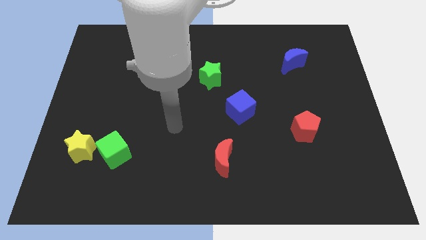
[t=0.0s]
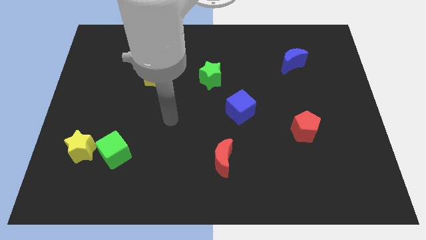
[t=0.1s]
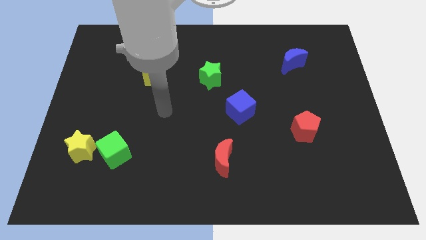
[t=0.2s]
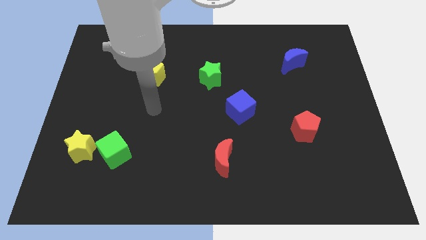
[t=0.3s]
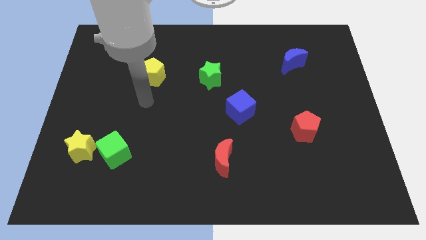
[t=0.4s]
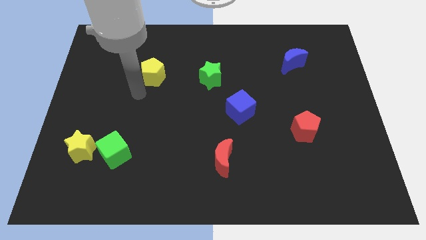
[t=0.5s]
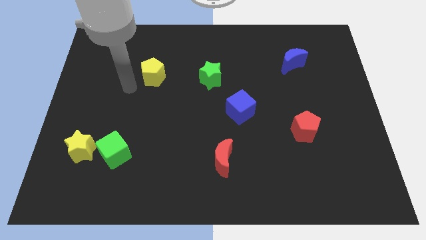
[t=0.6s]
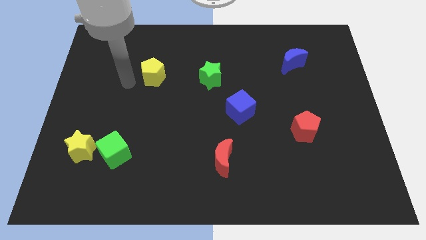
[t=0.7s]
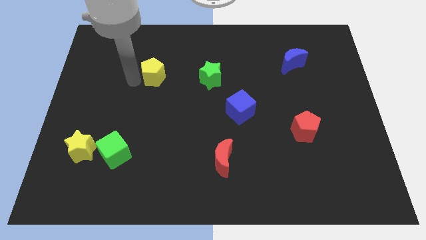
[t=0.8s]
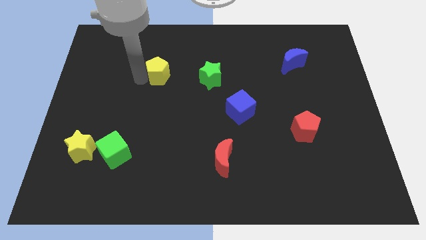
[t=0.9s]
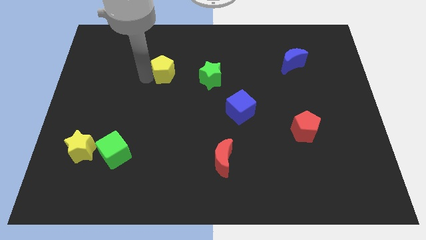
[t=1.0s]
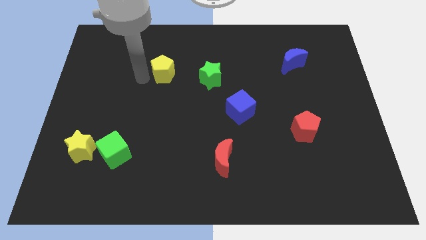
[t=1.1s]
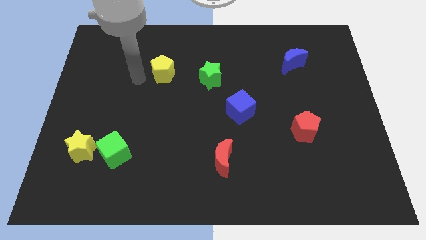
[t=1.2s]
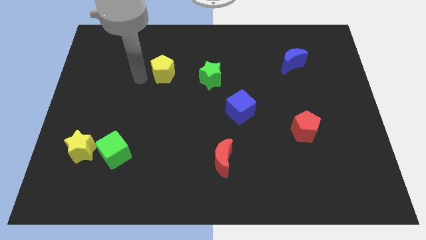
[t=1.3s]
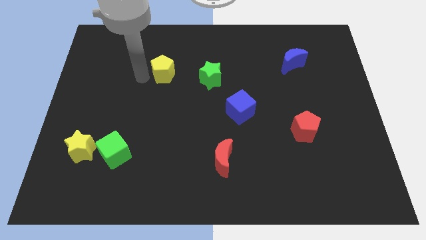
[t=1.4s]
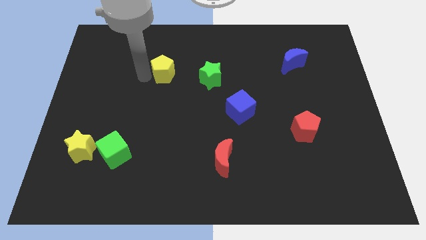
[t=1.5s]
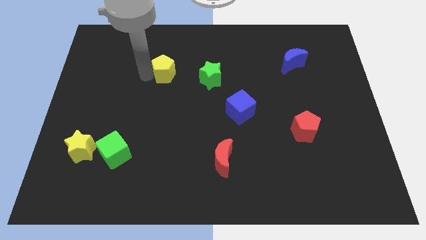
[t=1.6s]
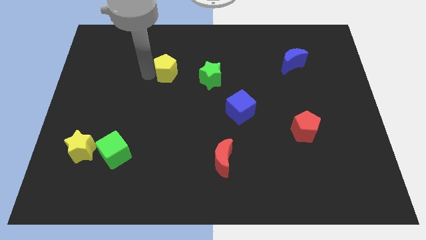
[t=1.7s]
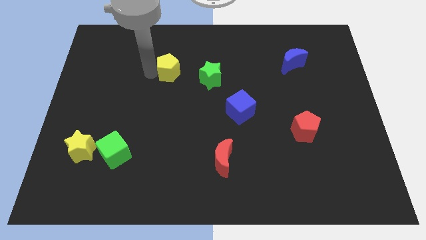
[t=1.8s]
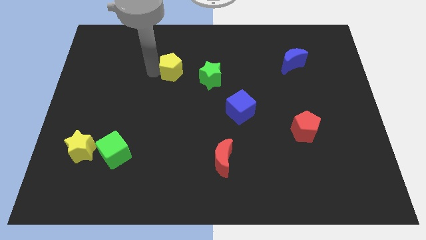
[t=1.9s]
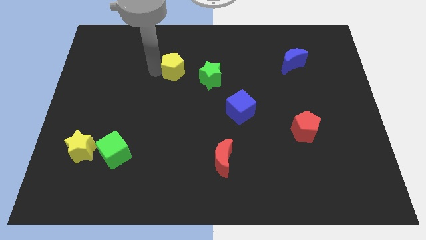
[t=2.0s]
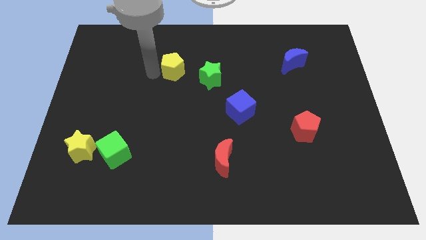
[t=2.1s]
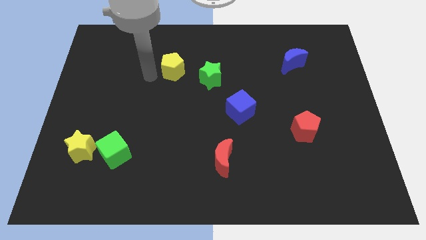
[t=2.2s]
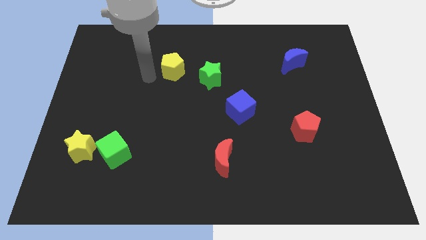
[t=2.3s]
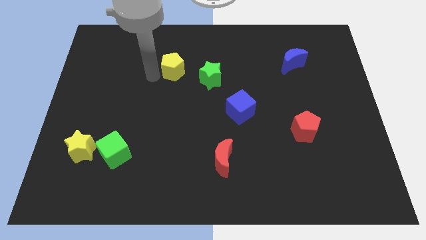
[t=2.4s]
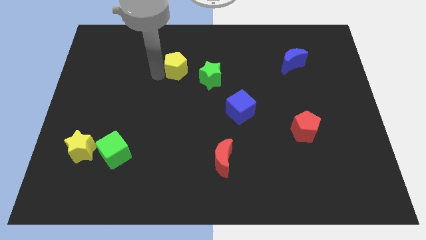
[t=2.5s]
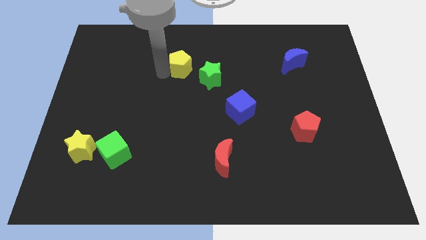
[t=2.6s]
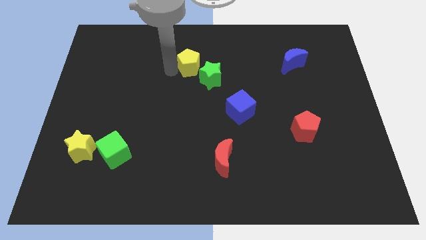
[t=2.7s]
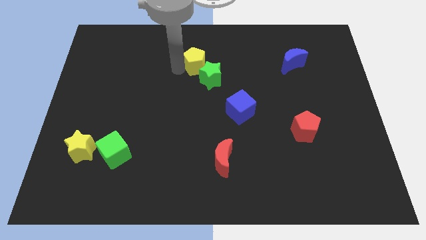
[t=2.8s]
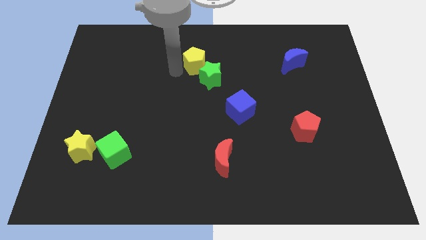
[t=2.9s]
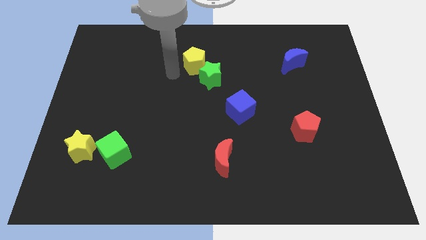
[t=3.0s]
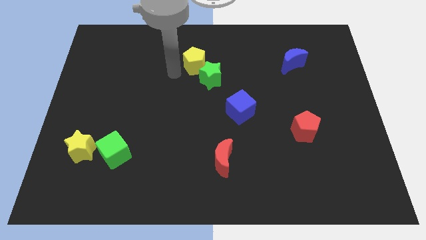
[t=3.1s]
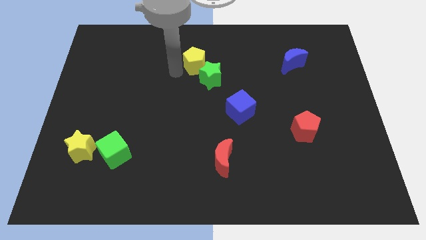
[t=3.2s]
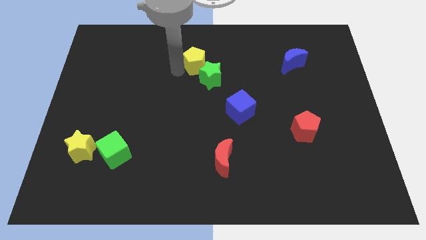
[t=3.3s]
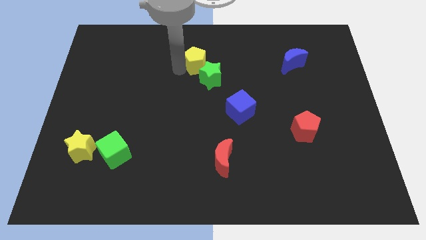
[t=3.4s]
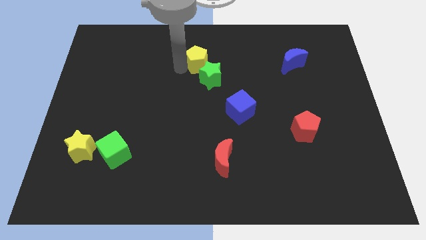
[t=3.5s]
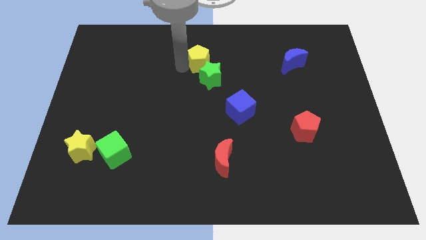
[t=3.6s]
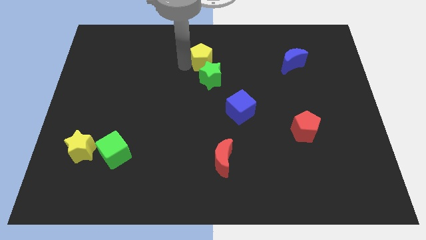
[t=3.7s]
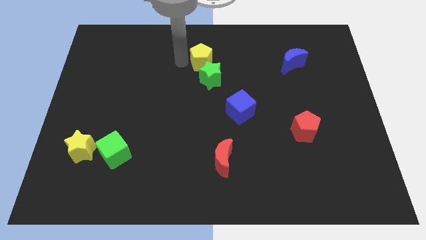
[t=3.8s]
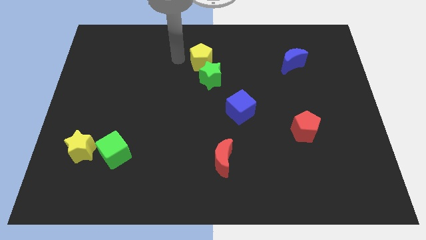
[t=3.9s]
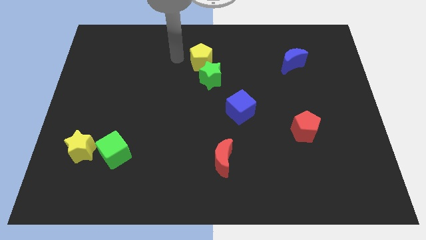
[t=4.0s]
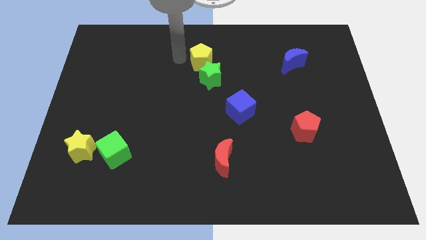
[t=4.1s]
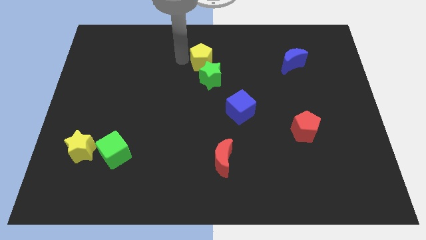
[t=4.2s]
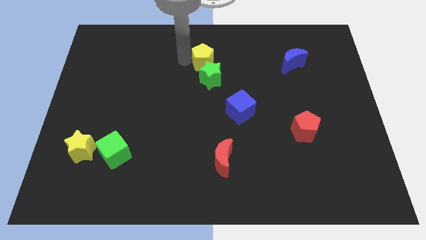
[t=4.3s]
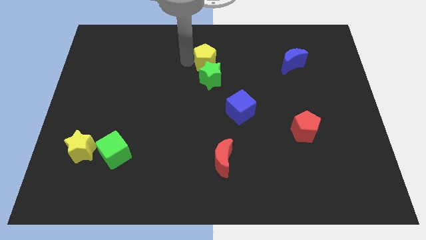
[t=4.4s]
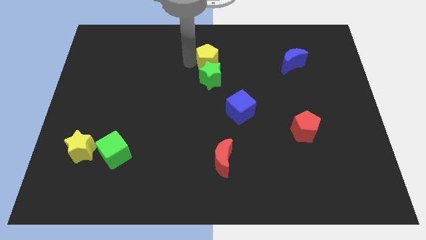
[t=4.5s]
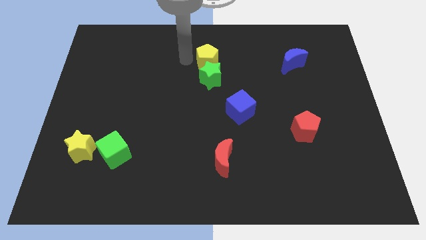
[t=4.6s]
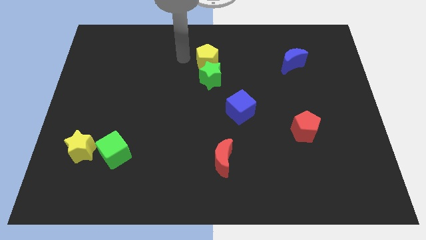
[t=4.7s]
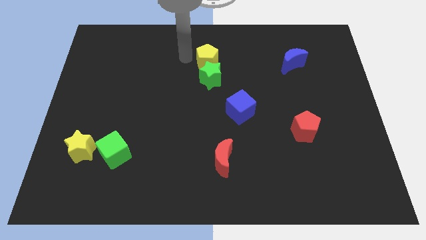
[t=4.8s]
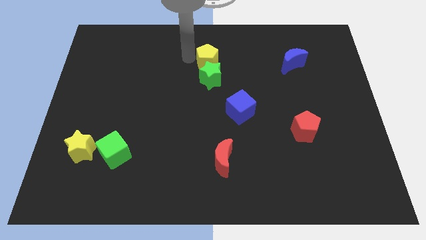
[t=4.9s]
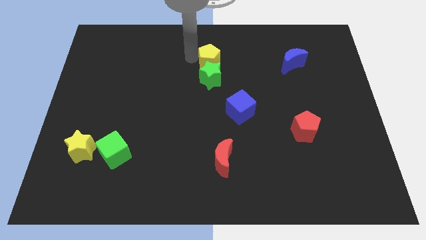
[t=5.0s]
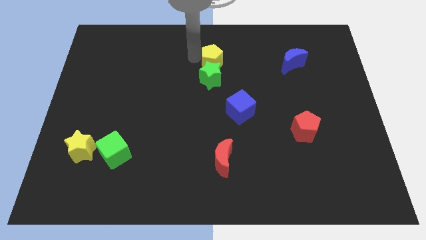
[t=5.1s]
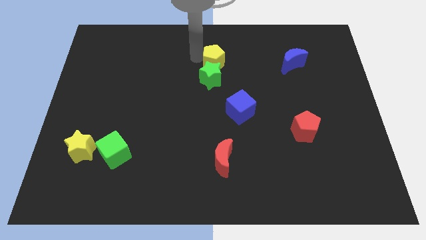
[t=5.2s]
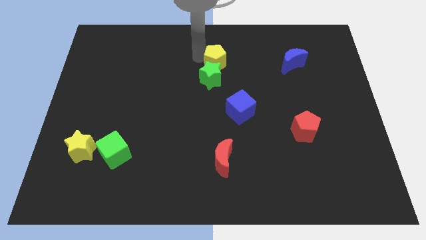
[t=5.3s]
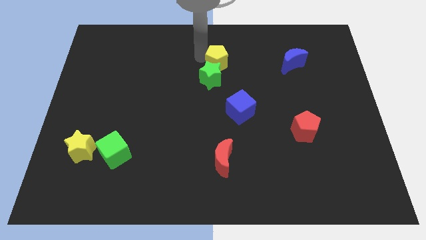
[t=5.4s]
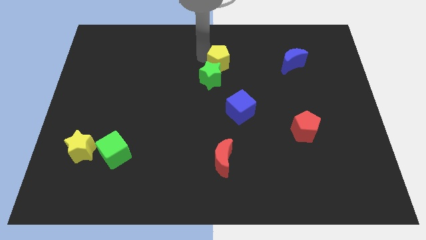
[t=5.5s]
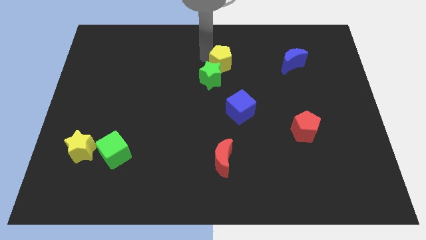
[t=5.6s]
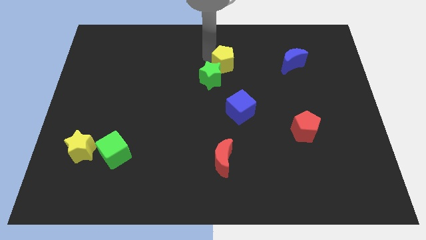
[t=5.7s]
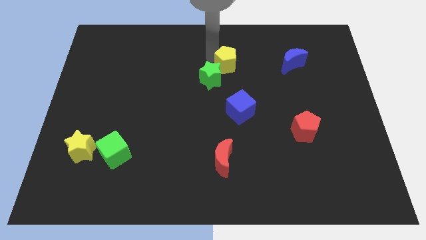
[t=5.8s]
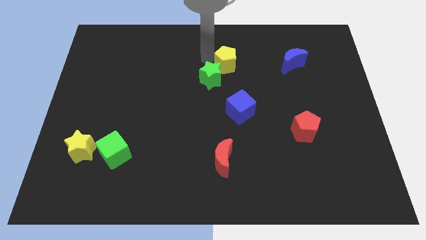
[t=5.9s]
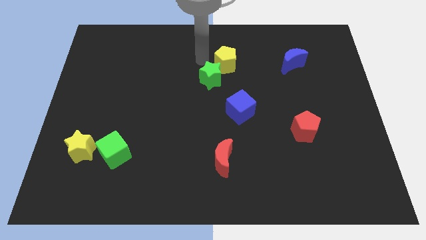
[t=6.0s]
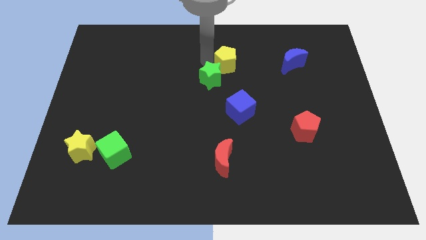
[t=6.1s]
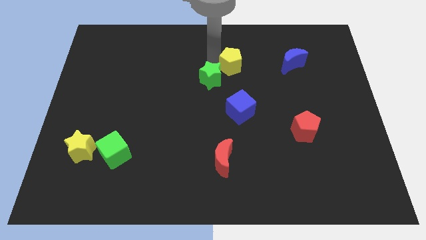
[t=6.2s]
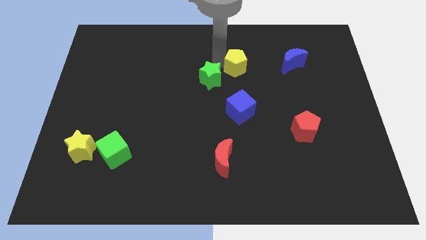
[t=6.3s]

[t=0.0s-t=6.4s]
push the yellow pentagon to the right

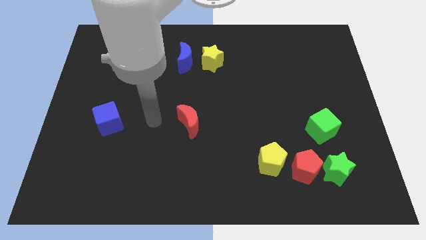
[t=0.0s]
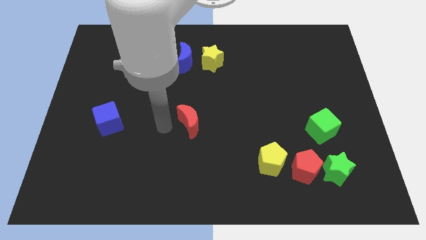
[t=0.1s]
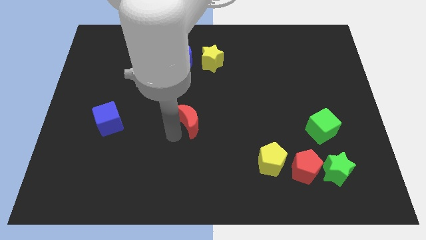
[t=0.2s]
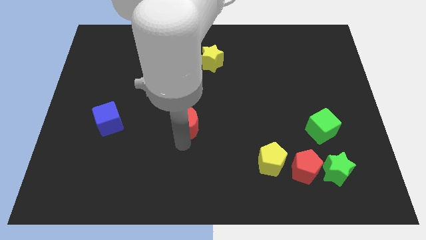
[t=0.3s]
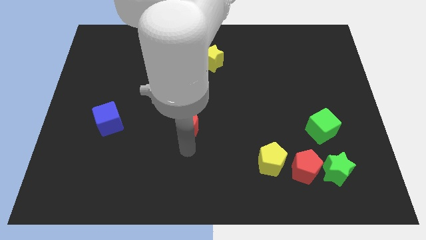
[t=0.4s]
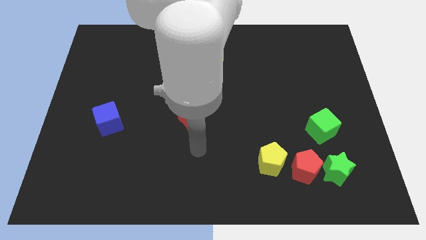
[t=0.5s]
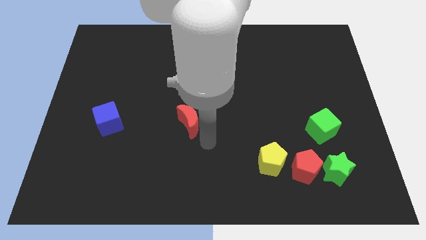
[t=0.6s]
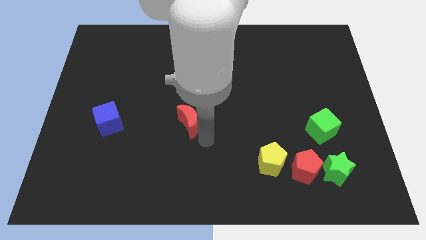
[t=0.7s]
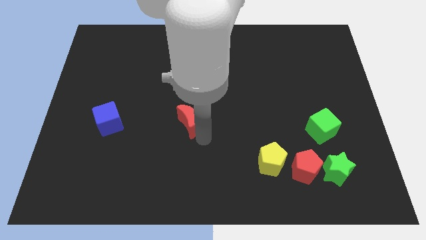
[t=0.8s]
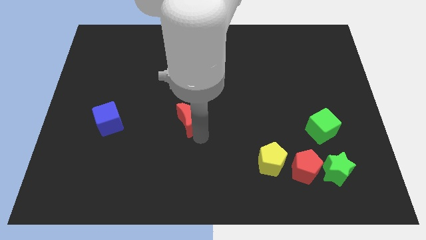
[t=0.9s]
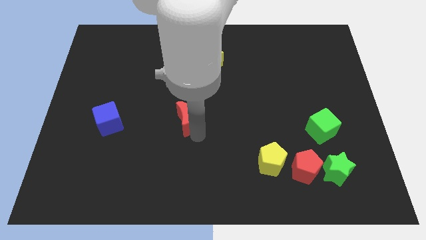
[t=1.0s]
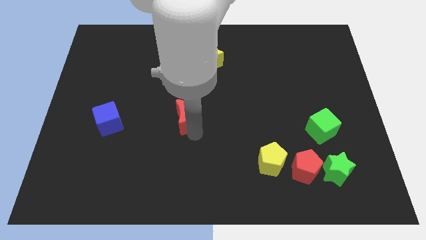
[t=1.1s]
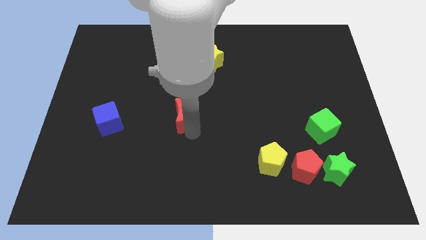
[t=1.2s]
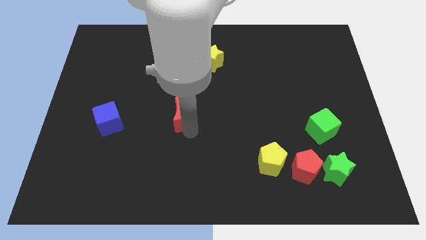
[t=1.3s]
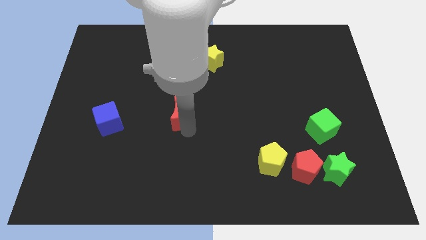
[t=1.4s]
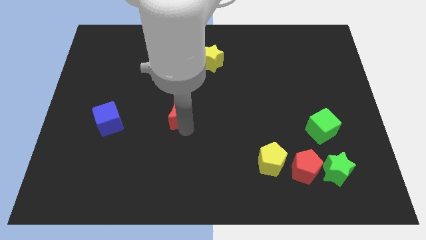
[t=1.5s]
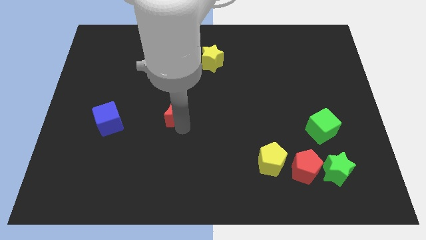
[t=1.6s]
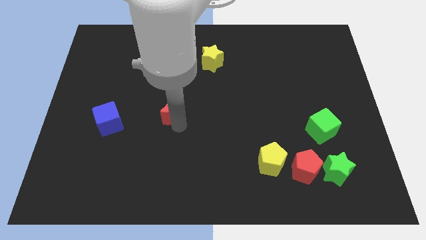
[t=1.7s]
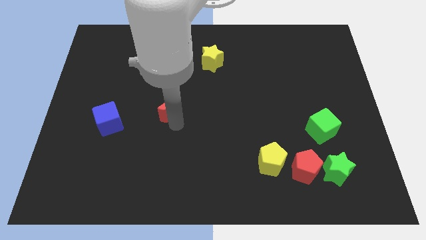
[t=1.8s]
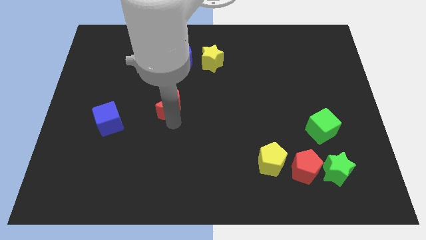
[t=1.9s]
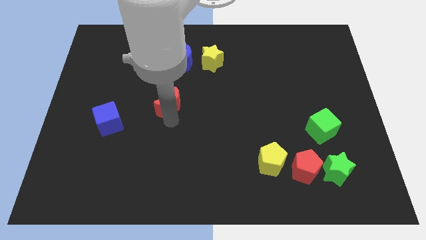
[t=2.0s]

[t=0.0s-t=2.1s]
move the red moon slightly upwards and left diagonally
